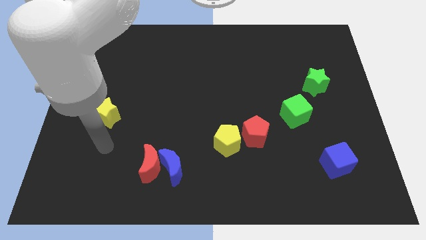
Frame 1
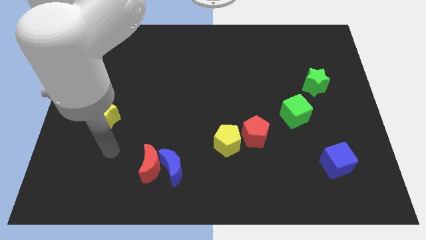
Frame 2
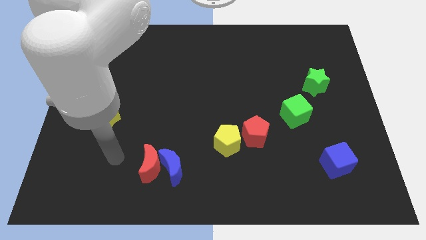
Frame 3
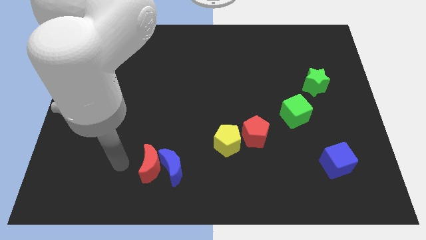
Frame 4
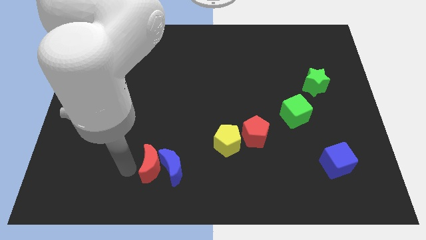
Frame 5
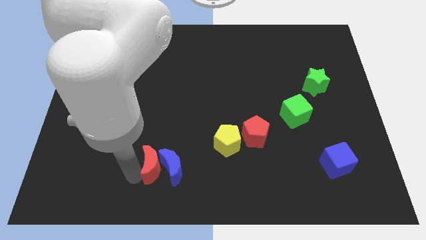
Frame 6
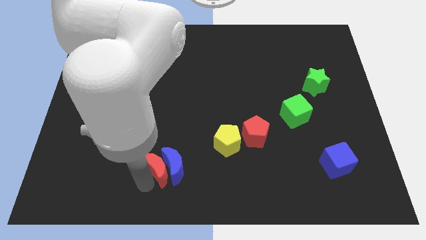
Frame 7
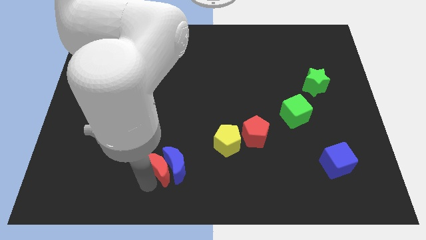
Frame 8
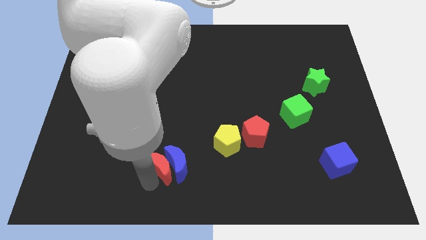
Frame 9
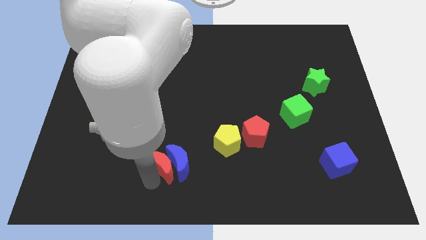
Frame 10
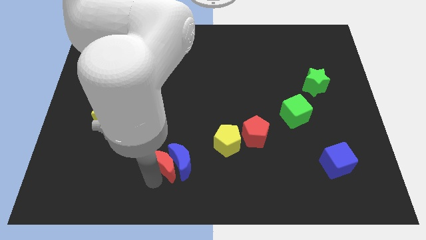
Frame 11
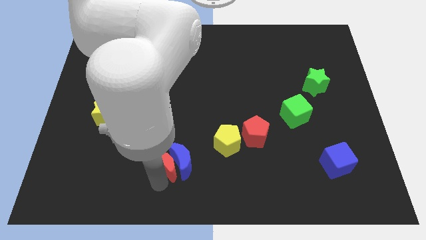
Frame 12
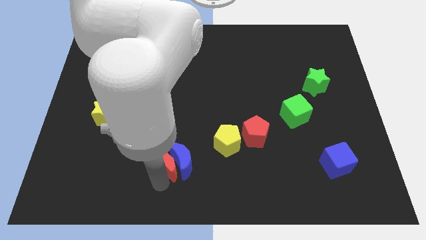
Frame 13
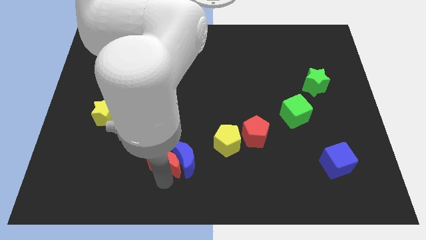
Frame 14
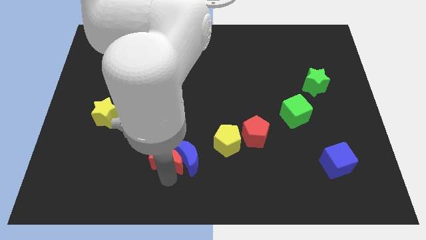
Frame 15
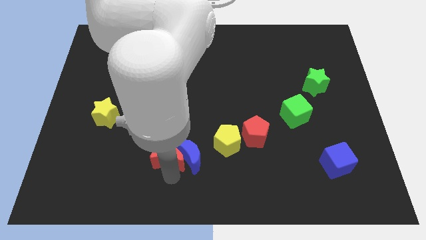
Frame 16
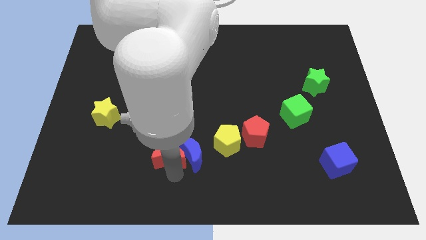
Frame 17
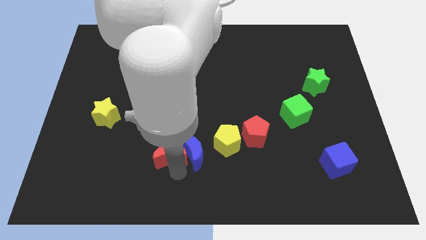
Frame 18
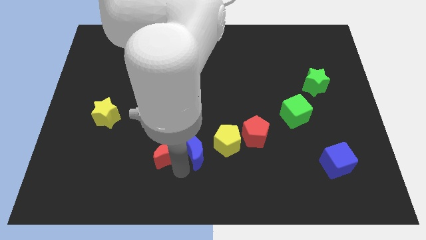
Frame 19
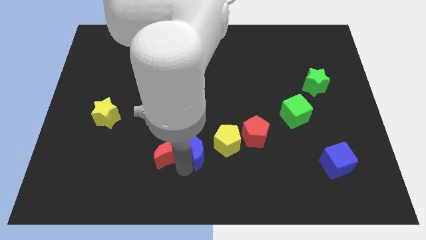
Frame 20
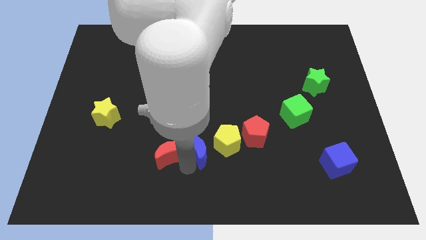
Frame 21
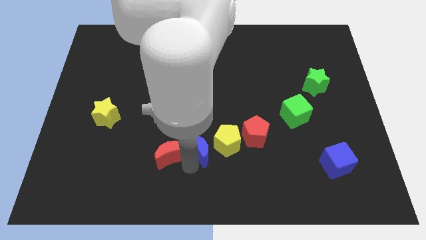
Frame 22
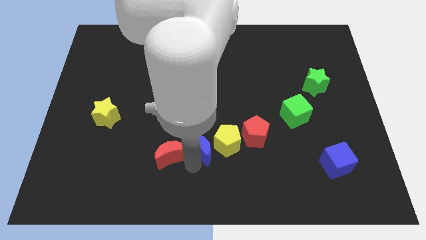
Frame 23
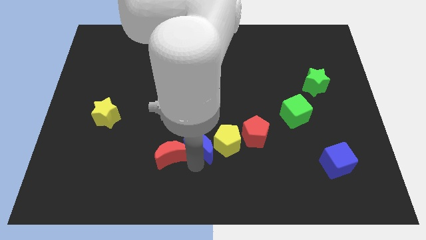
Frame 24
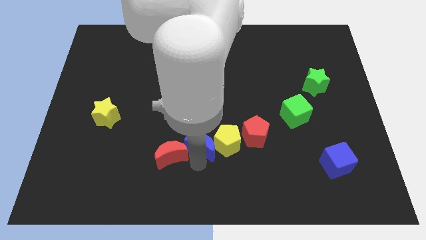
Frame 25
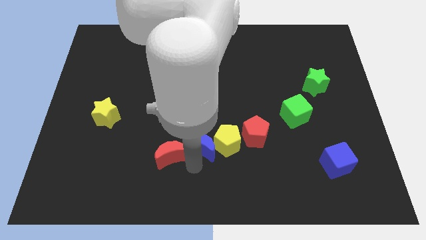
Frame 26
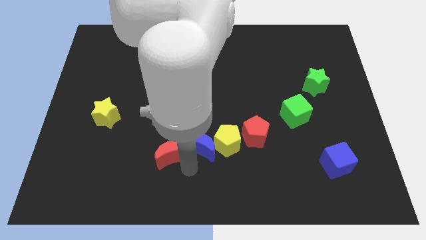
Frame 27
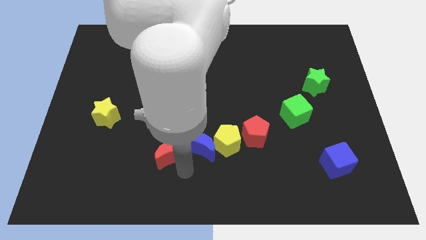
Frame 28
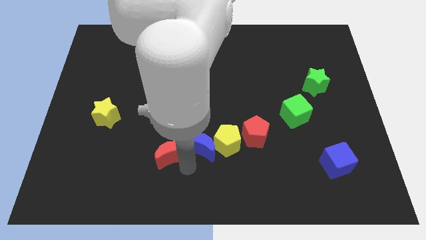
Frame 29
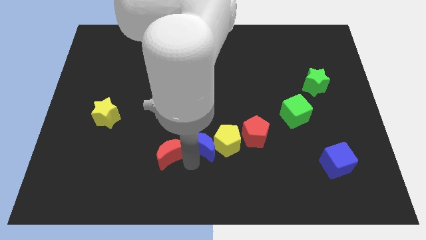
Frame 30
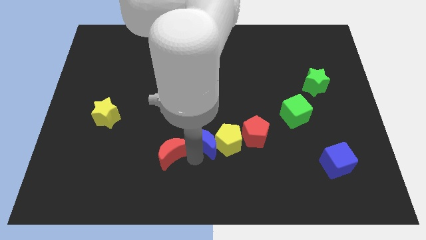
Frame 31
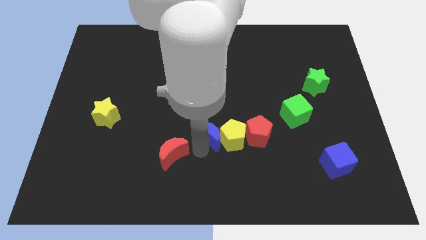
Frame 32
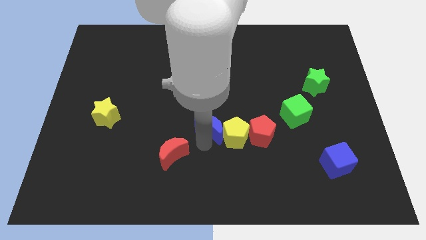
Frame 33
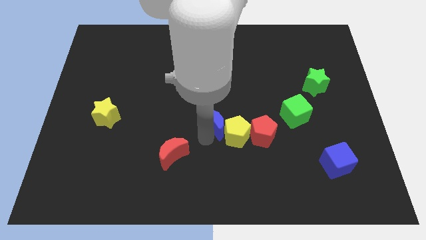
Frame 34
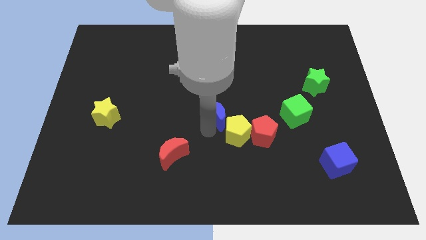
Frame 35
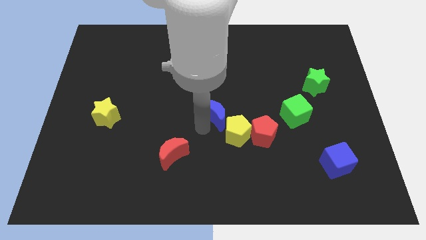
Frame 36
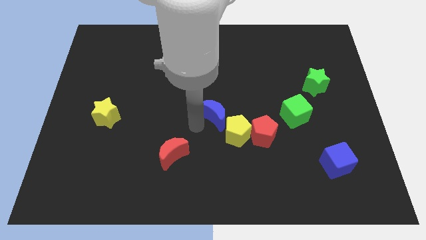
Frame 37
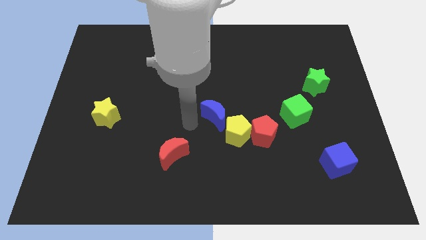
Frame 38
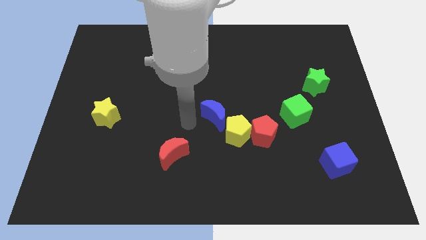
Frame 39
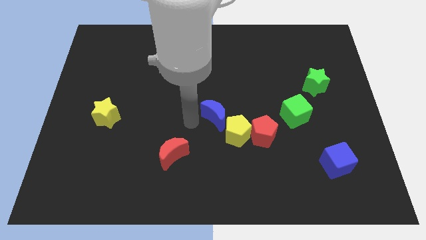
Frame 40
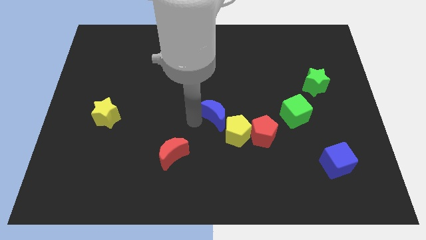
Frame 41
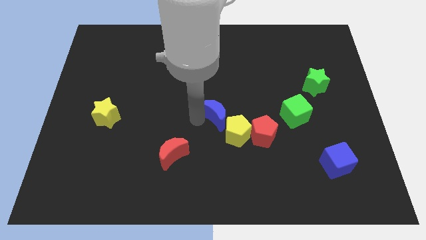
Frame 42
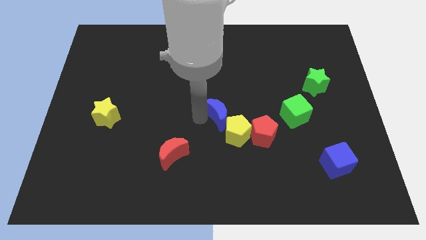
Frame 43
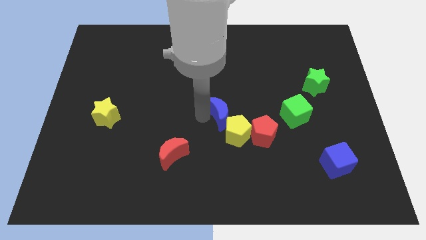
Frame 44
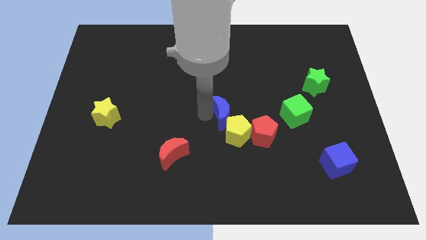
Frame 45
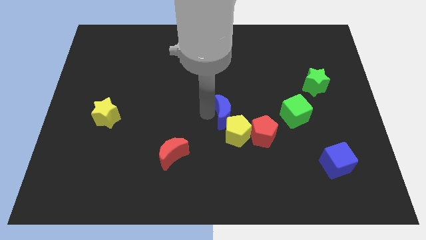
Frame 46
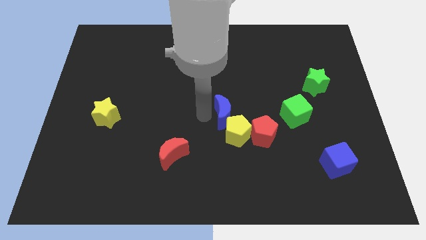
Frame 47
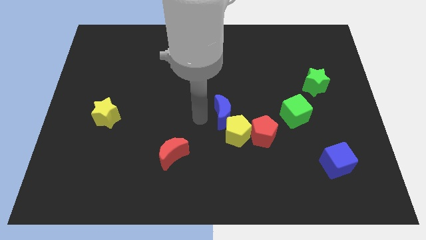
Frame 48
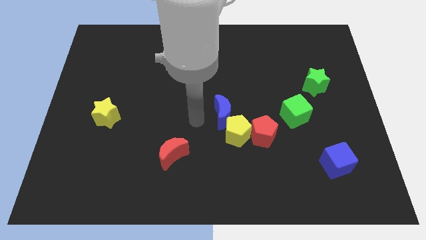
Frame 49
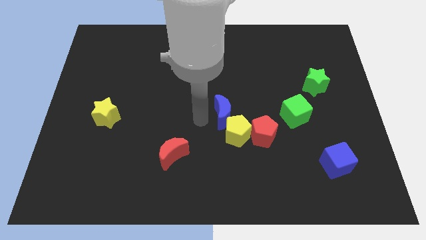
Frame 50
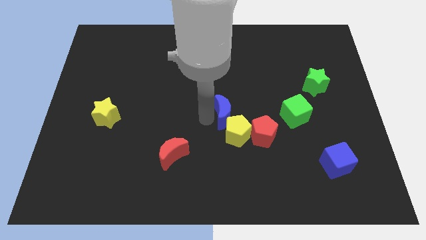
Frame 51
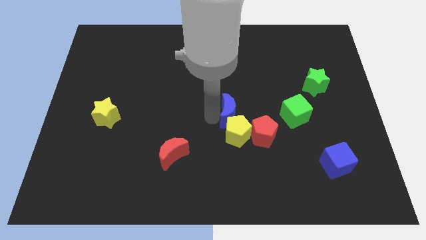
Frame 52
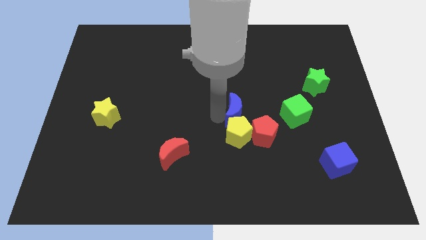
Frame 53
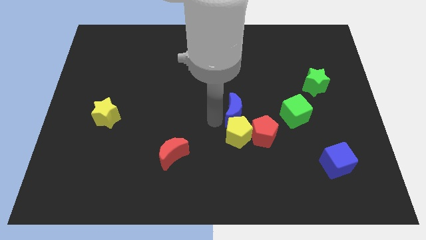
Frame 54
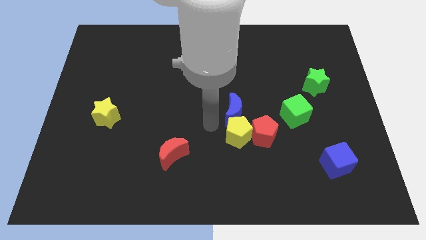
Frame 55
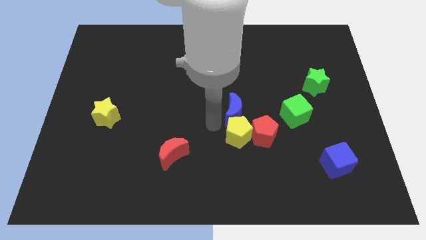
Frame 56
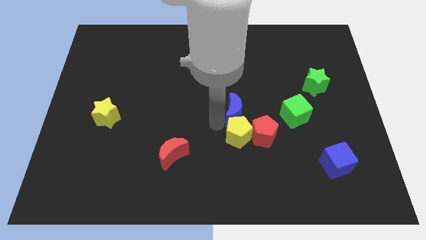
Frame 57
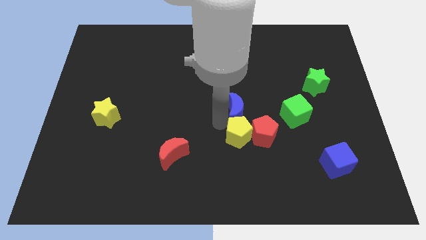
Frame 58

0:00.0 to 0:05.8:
push the blue moon upwards and to the right

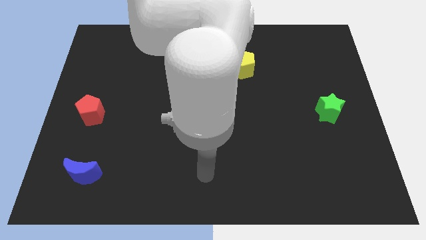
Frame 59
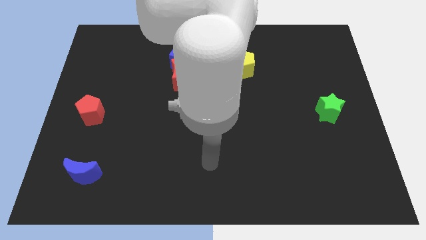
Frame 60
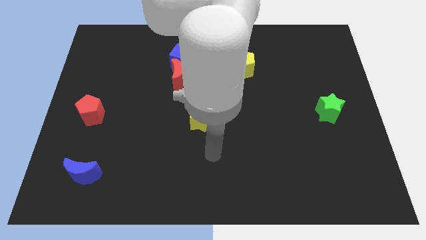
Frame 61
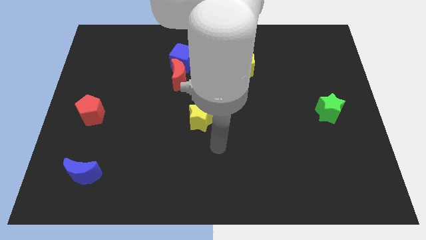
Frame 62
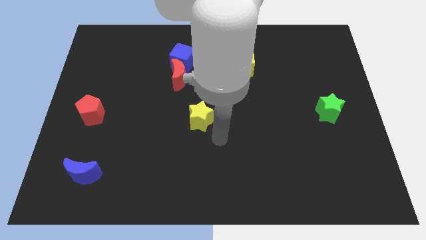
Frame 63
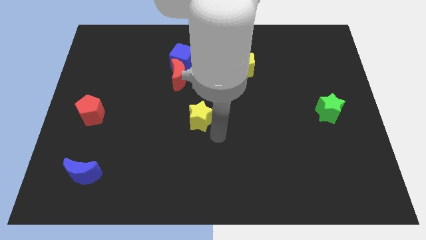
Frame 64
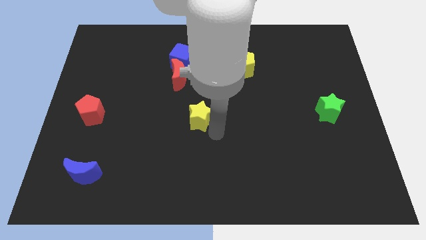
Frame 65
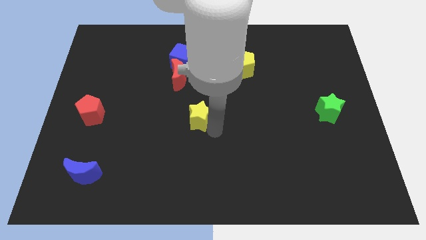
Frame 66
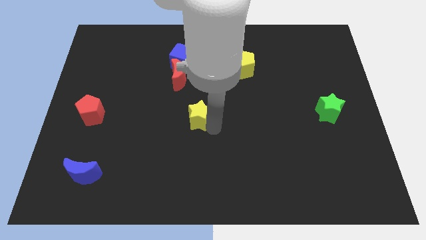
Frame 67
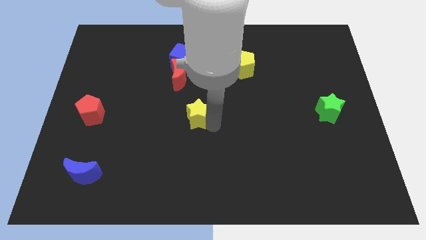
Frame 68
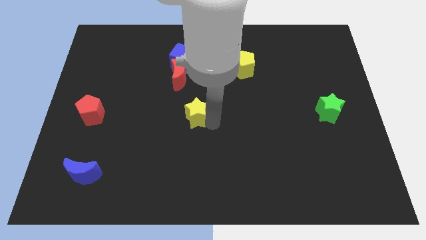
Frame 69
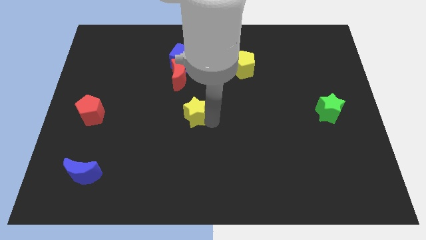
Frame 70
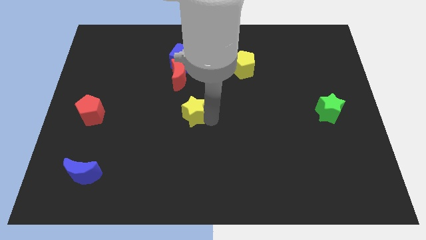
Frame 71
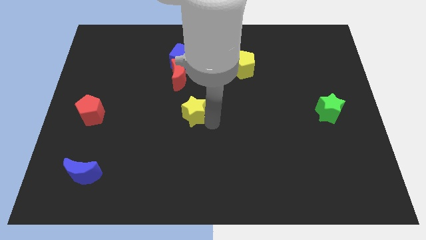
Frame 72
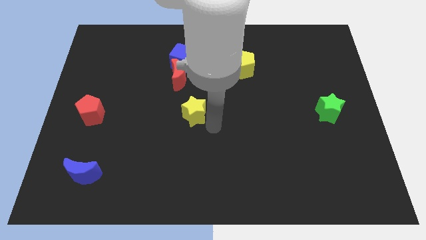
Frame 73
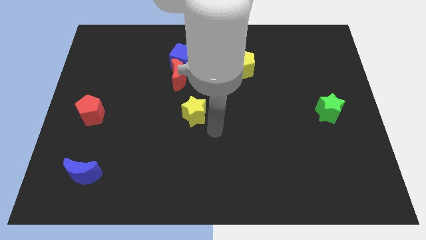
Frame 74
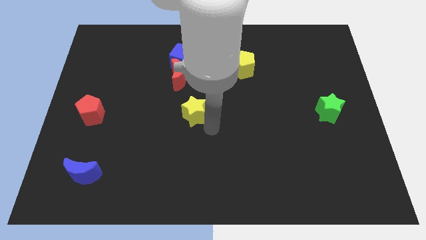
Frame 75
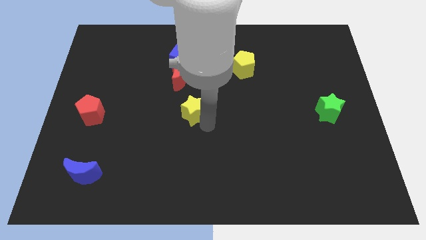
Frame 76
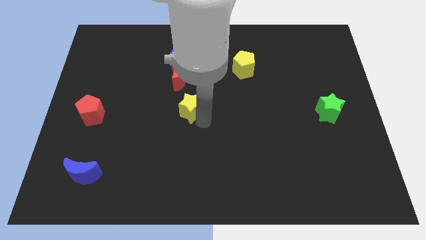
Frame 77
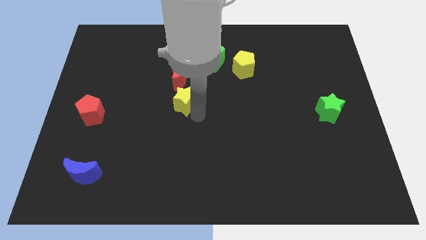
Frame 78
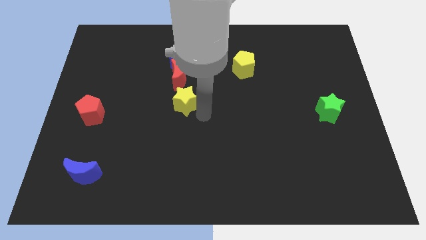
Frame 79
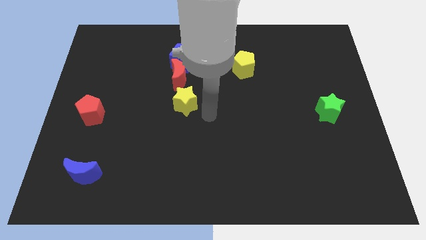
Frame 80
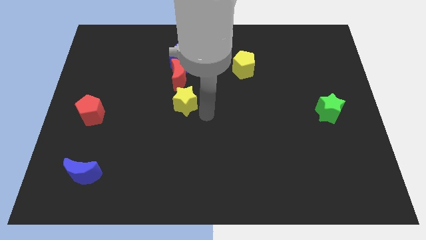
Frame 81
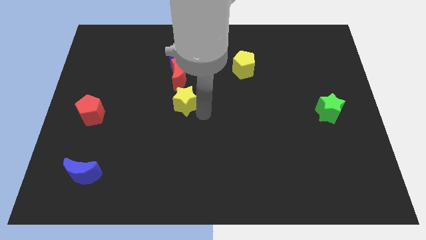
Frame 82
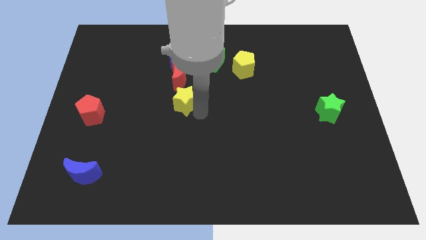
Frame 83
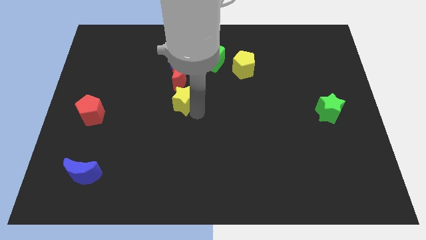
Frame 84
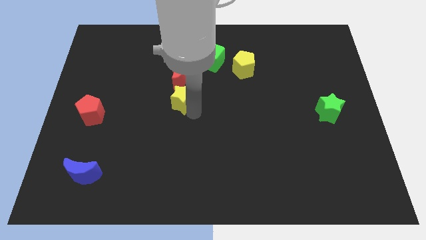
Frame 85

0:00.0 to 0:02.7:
push the yellow star a bit up and to the left diagonally
